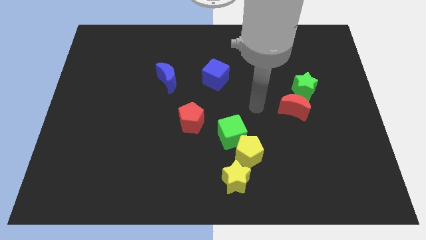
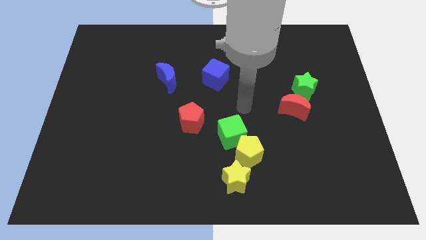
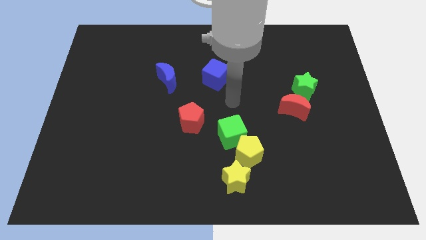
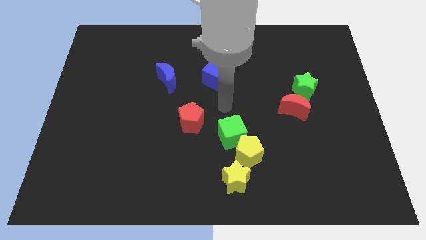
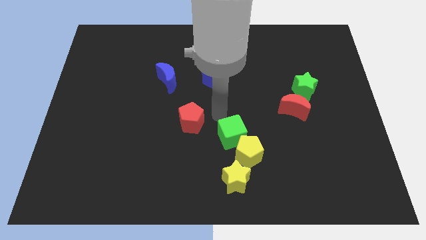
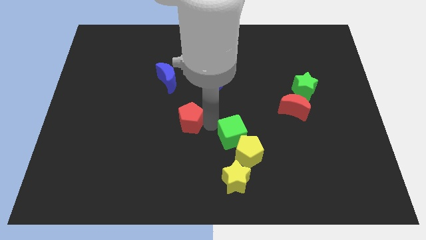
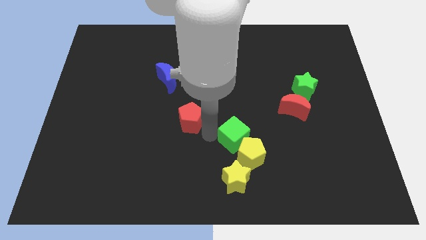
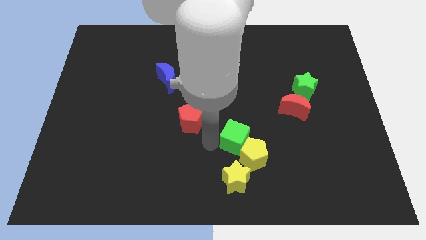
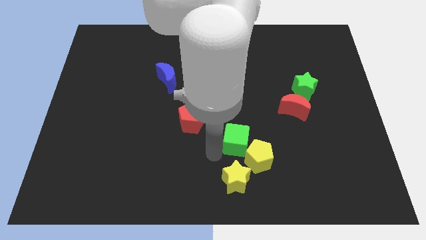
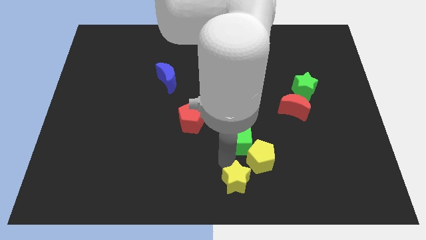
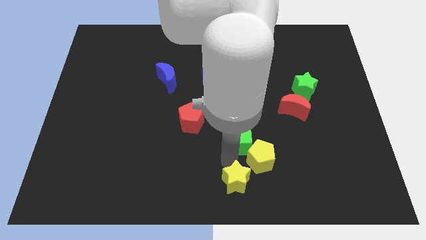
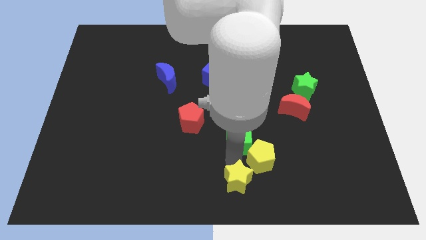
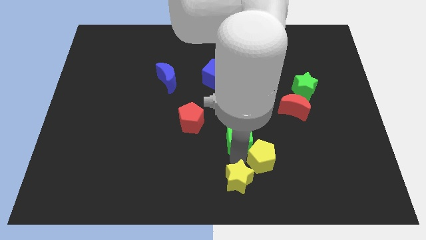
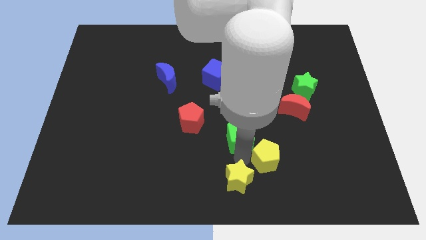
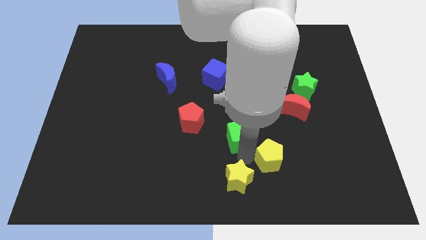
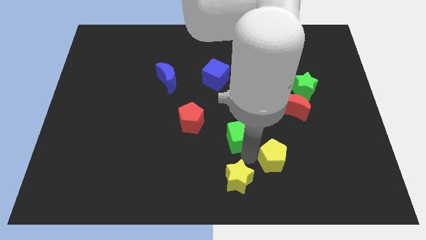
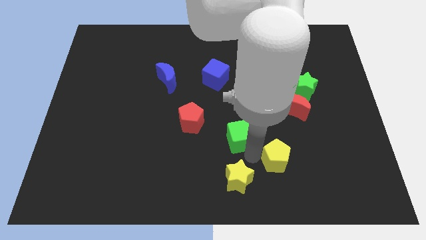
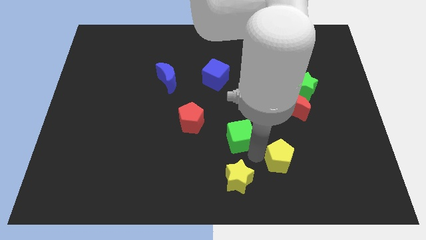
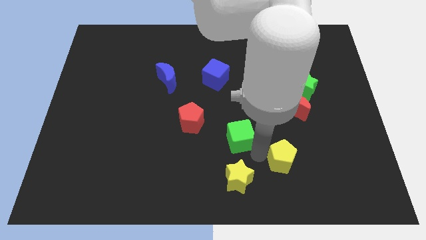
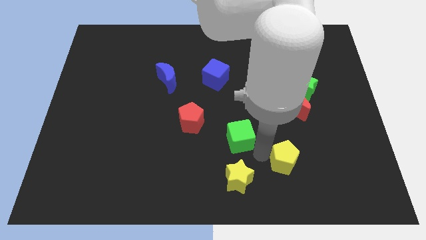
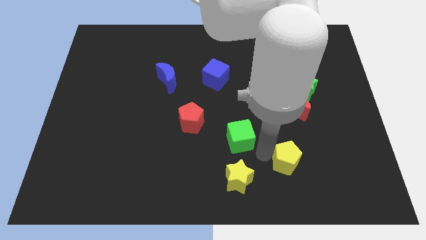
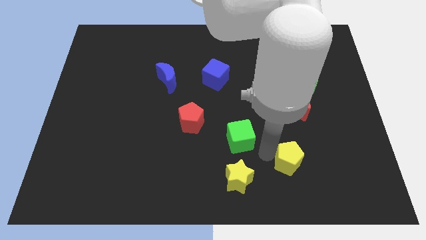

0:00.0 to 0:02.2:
separate the yellow pentagon from the green cube and yellow star

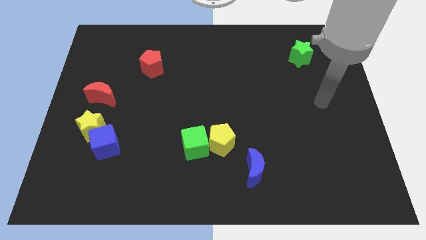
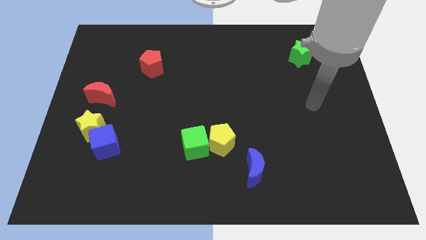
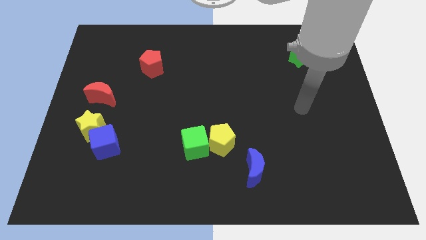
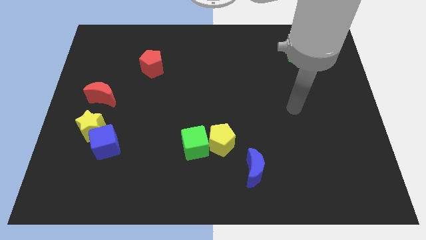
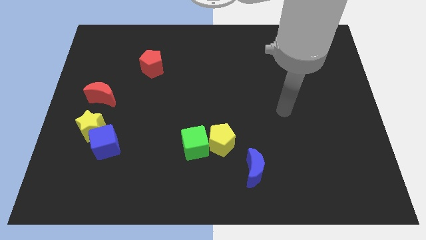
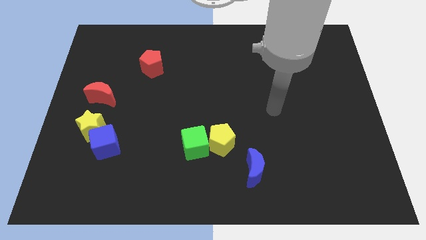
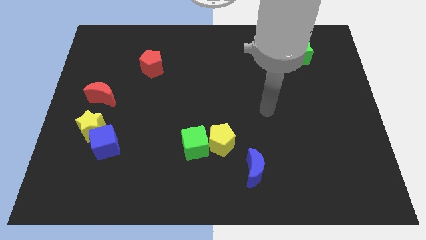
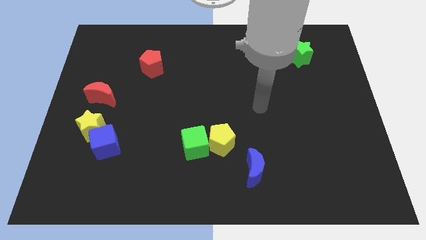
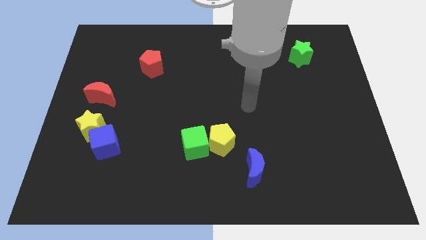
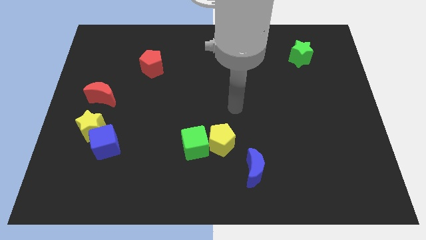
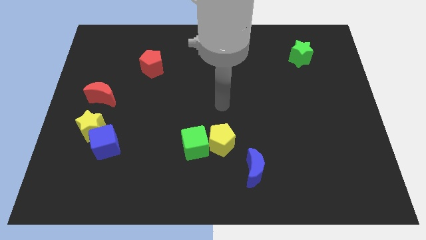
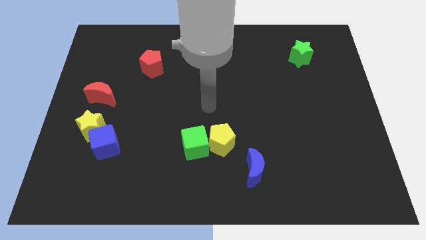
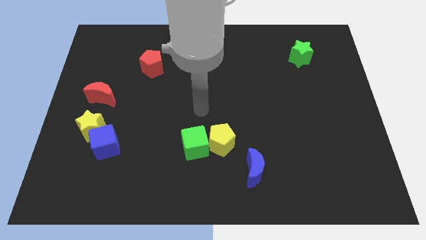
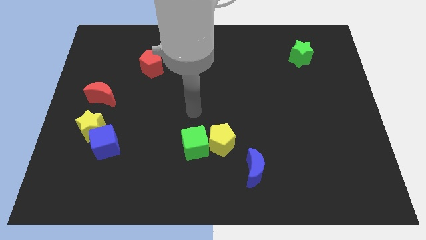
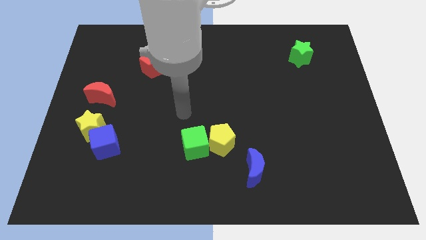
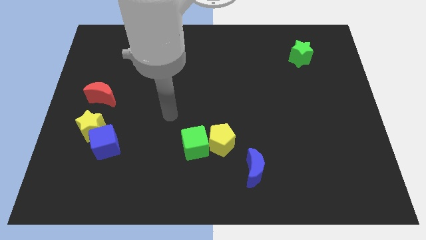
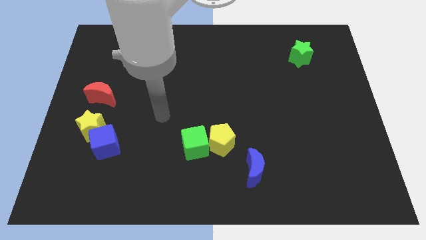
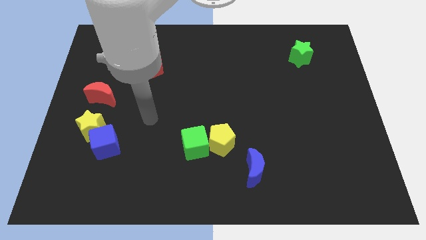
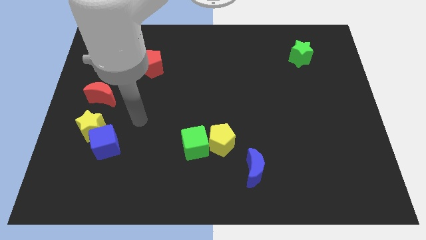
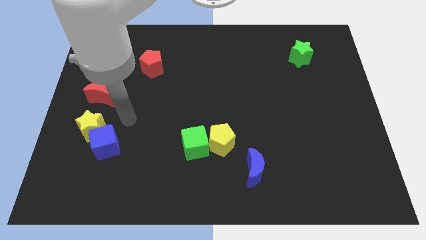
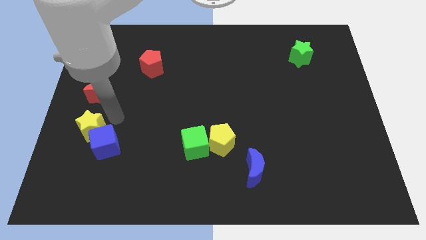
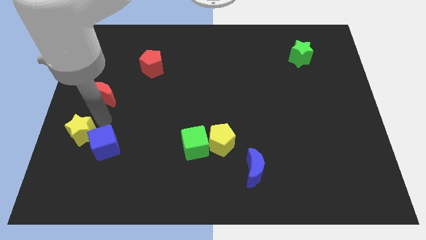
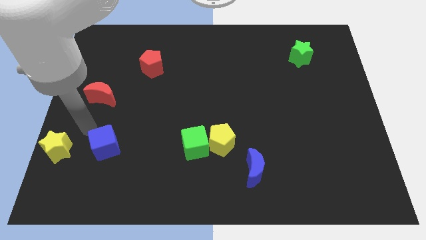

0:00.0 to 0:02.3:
pull the blue cube apart from the yellow star

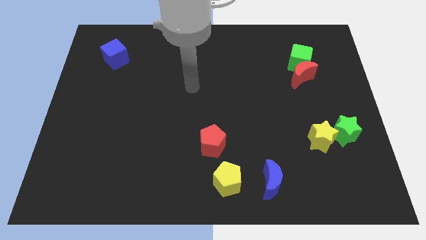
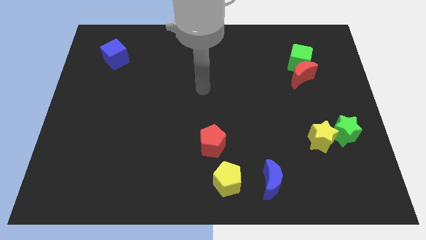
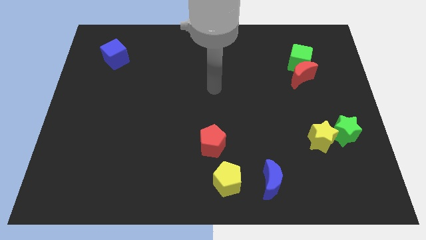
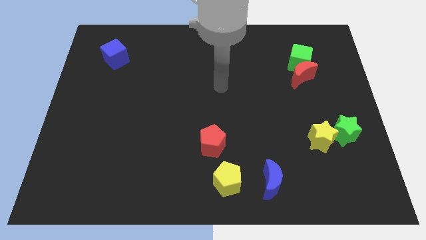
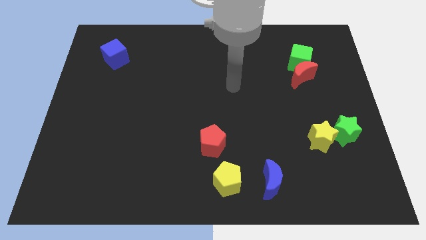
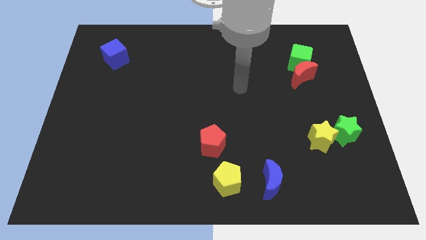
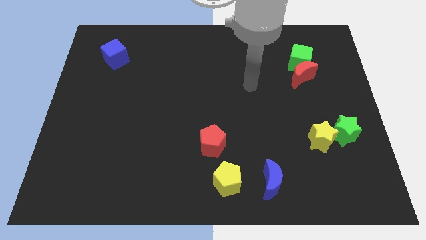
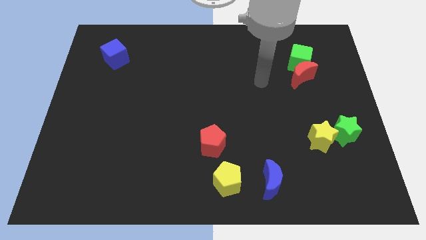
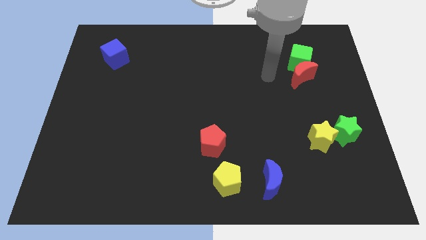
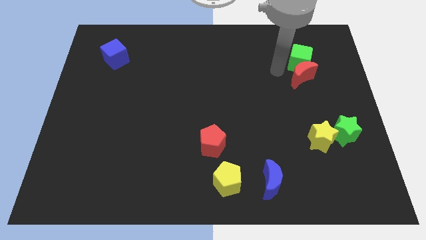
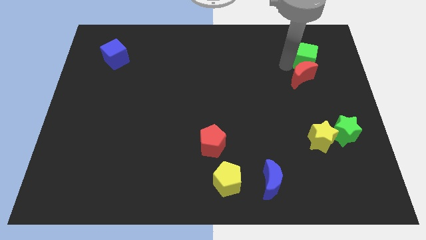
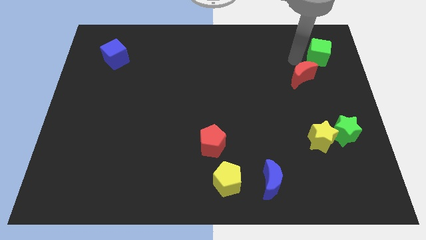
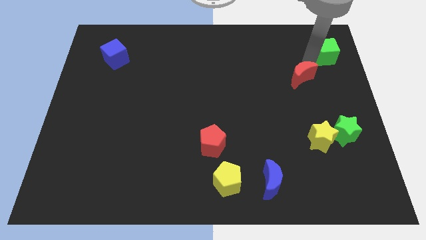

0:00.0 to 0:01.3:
move the red moon away from the green cube

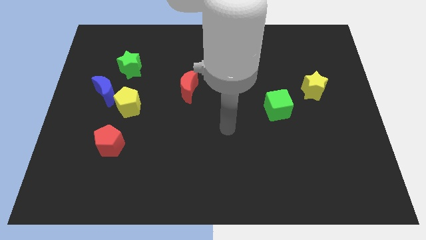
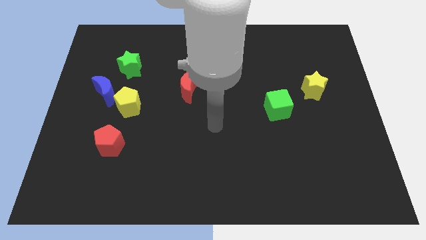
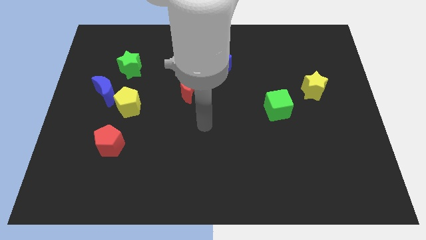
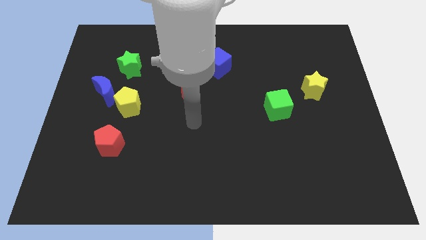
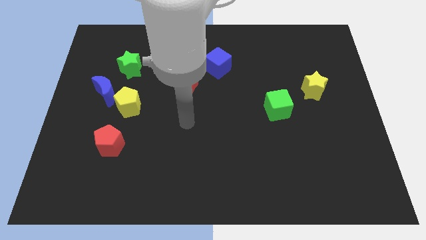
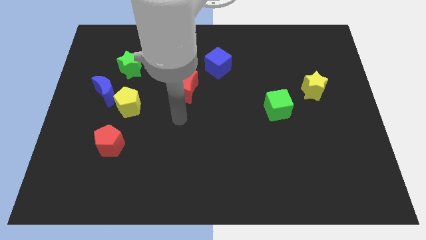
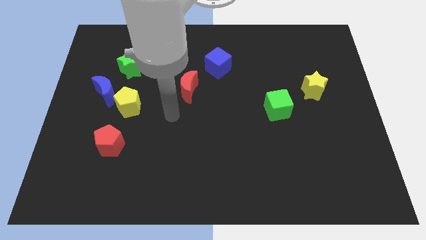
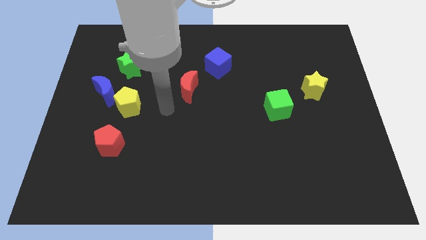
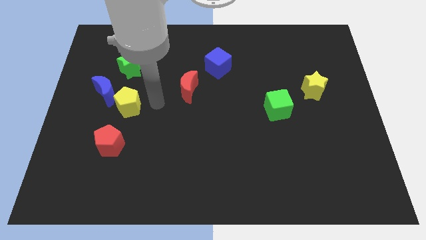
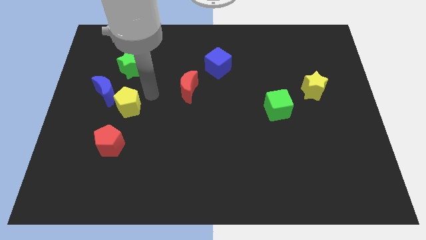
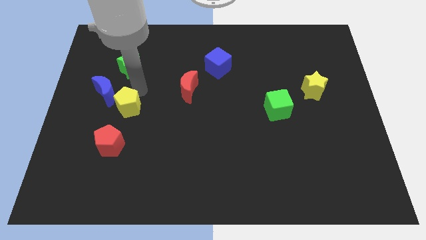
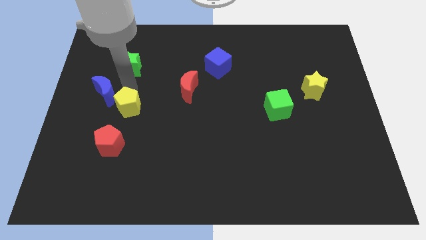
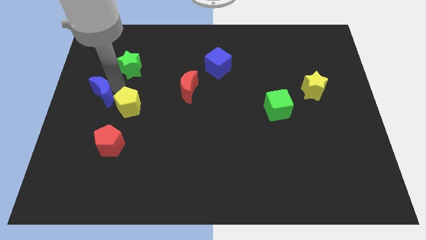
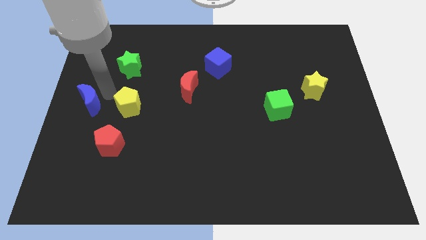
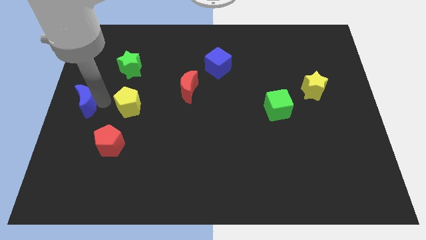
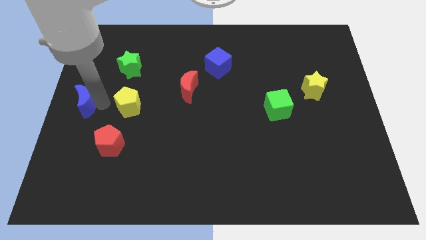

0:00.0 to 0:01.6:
separate the yellow pentagon from the blue moon

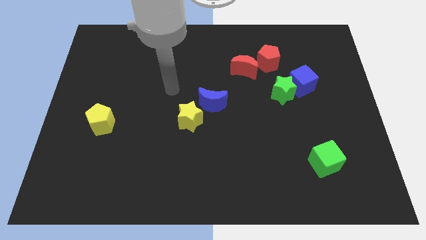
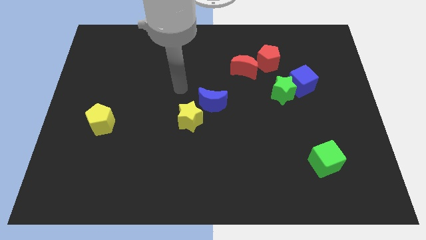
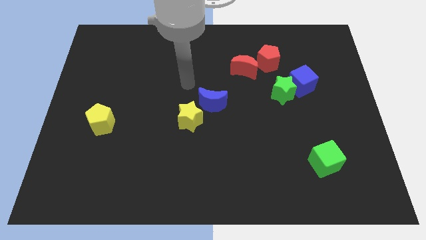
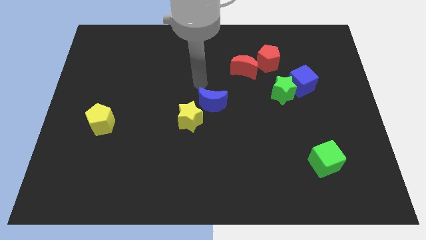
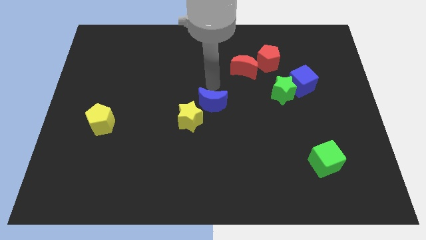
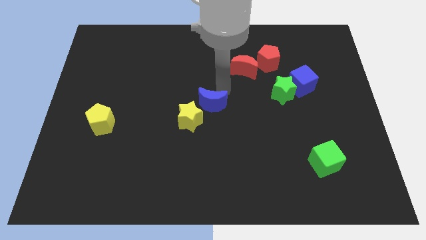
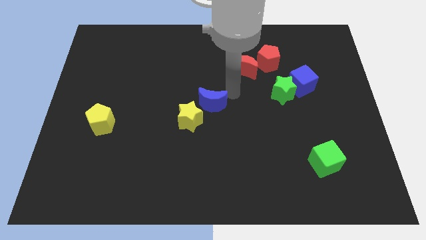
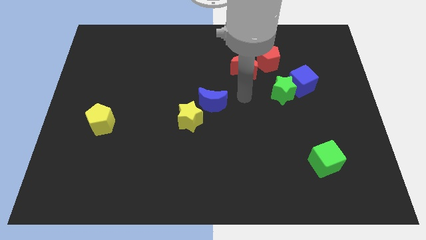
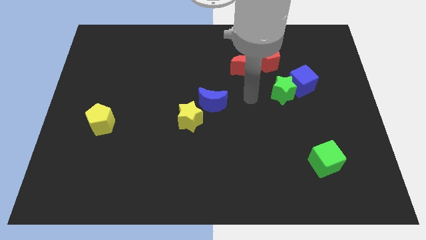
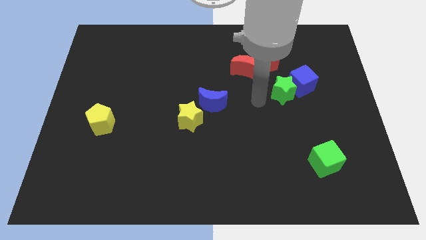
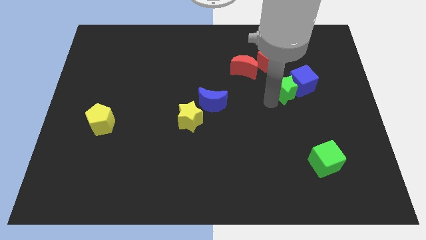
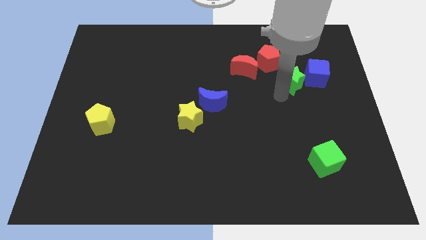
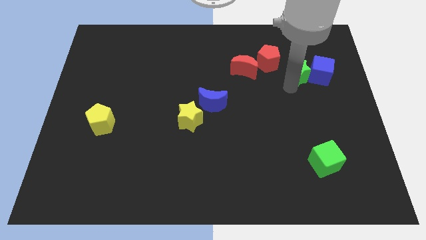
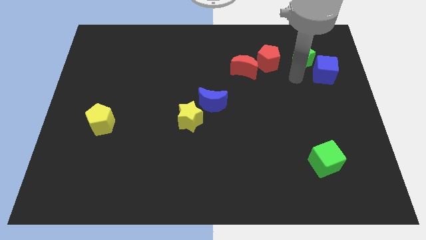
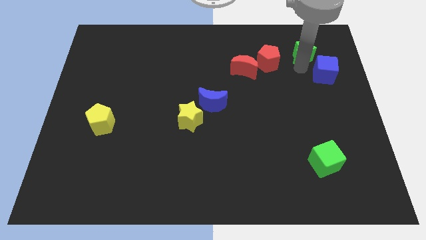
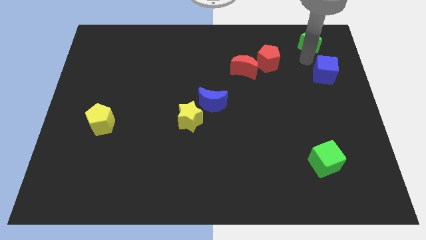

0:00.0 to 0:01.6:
separate the blue cube from the green star

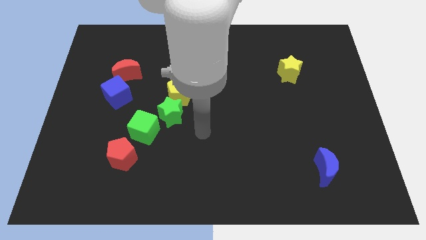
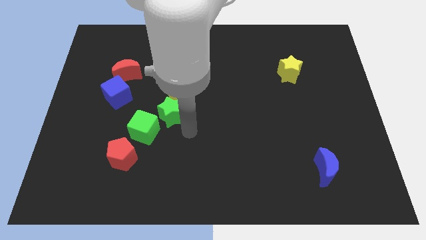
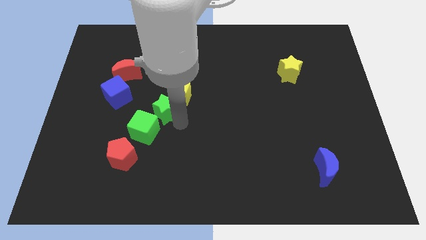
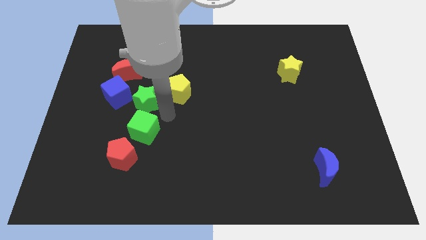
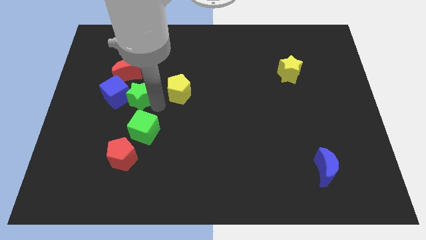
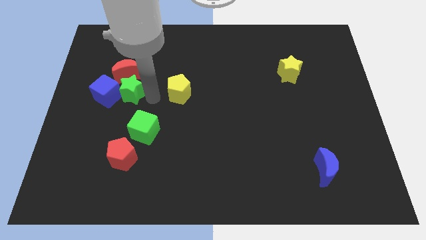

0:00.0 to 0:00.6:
pull the yellow pentagon apart from the green star
